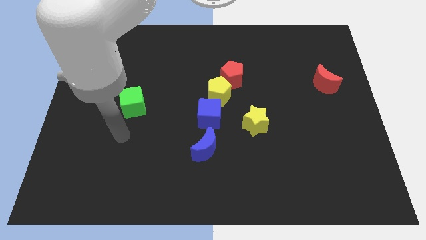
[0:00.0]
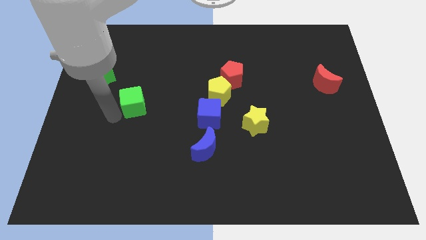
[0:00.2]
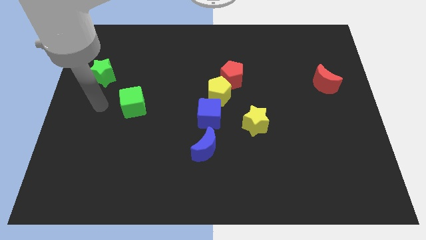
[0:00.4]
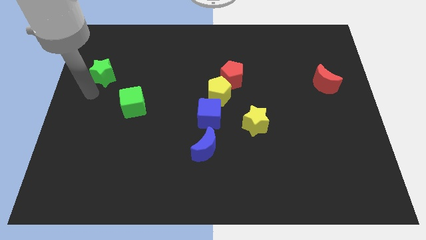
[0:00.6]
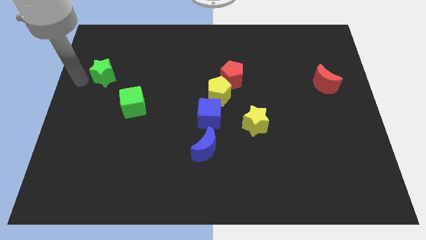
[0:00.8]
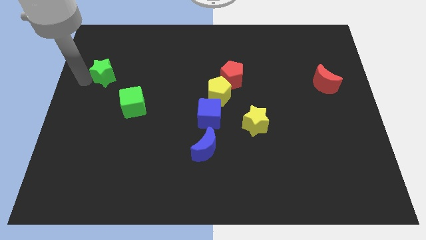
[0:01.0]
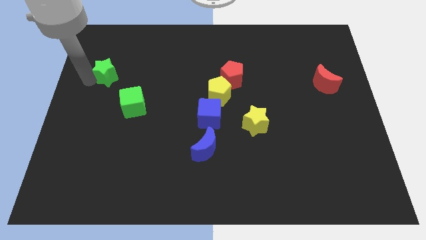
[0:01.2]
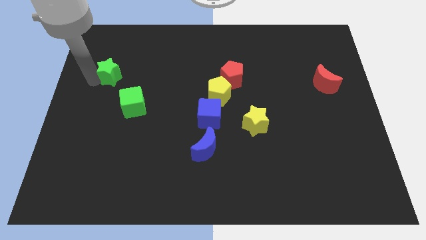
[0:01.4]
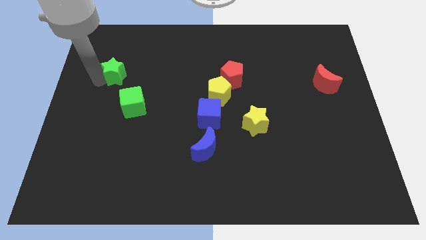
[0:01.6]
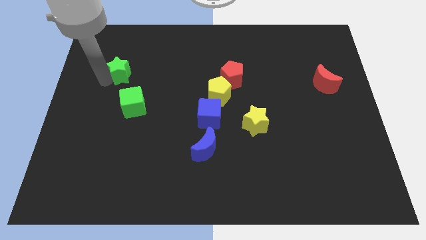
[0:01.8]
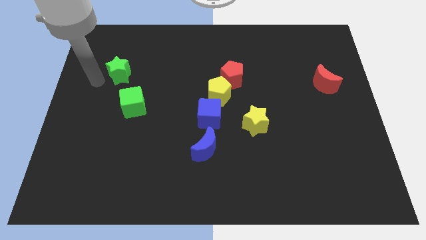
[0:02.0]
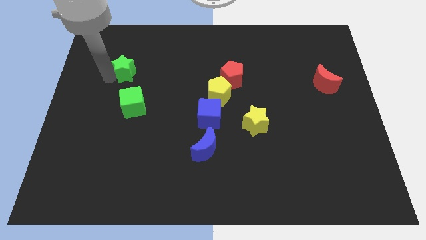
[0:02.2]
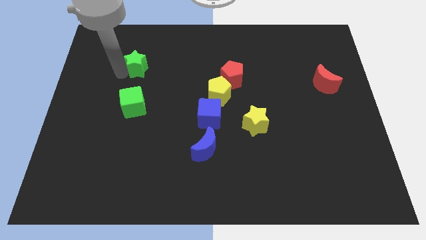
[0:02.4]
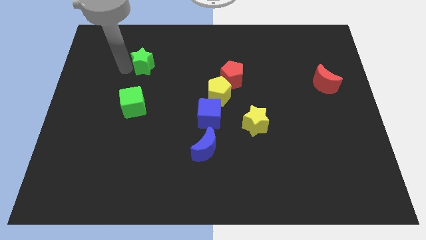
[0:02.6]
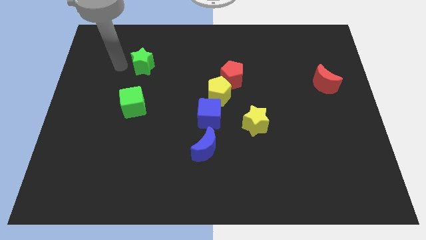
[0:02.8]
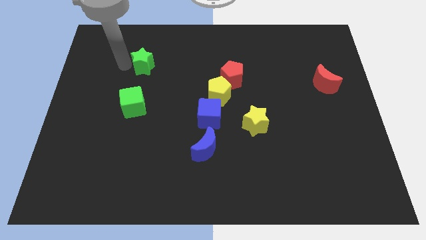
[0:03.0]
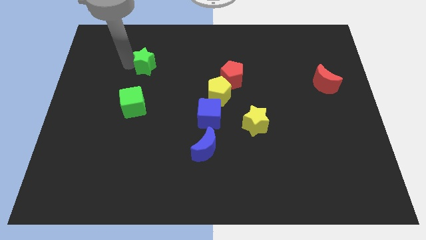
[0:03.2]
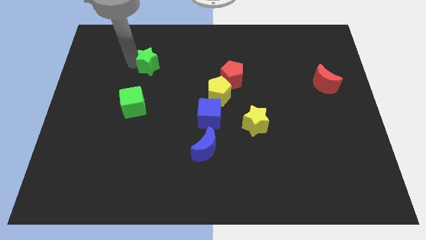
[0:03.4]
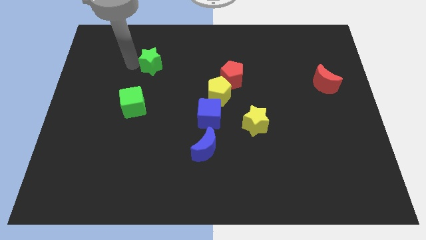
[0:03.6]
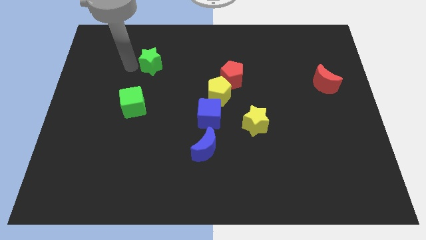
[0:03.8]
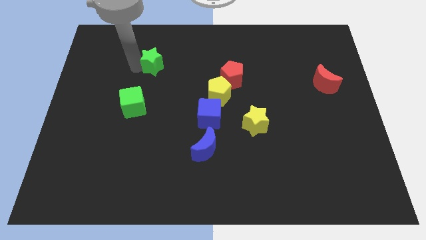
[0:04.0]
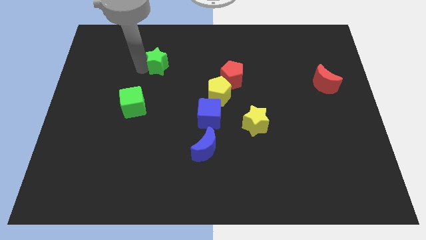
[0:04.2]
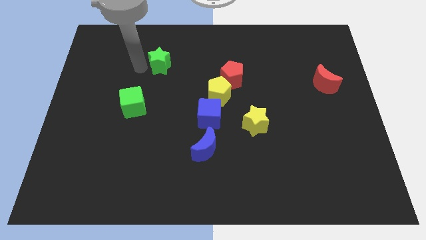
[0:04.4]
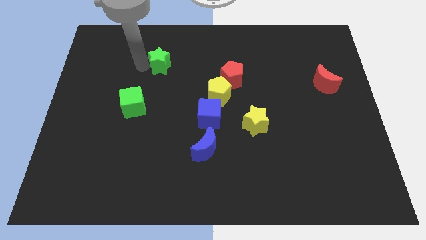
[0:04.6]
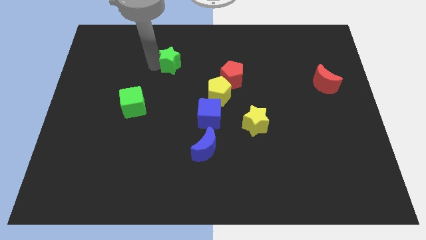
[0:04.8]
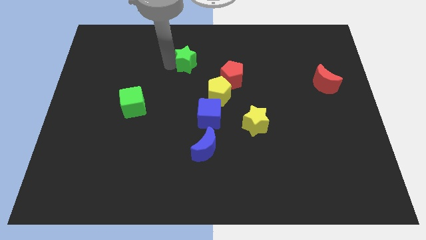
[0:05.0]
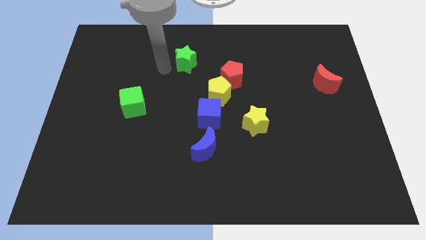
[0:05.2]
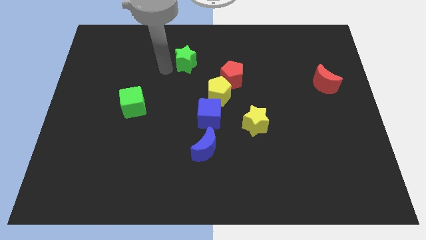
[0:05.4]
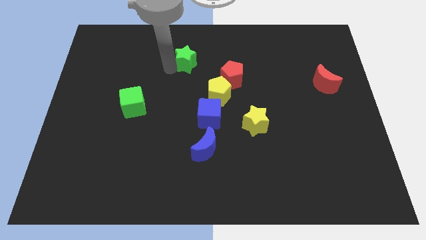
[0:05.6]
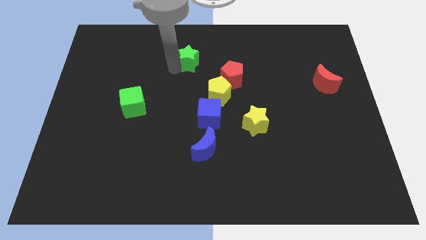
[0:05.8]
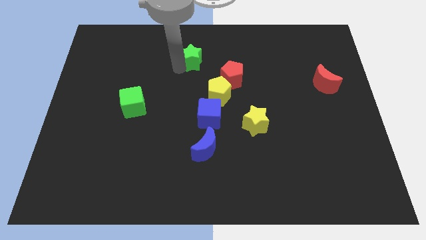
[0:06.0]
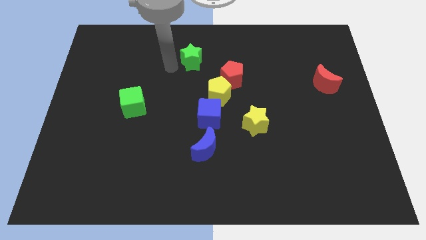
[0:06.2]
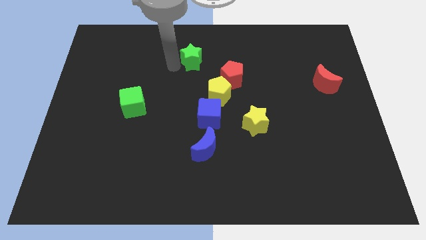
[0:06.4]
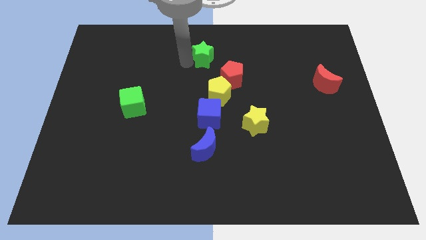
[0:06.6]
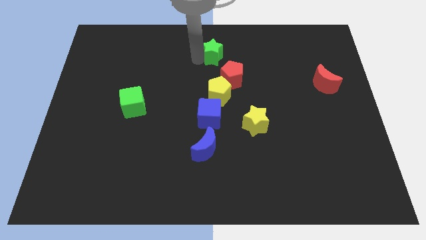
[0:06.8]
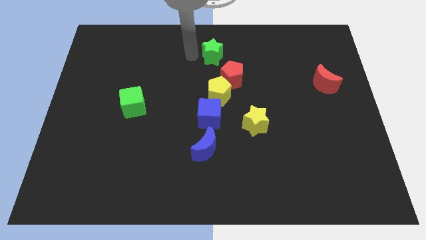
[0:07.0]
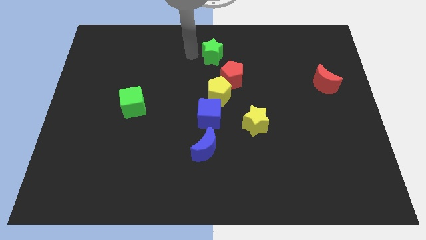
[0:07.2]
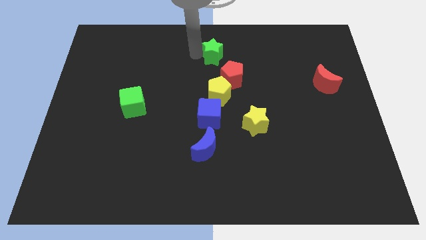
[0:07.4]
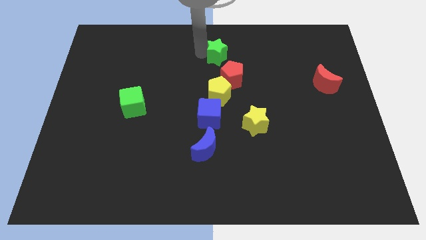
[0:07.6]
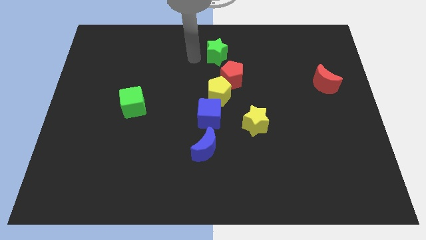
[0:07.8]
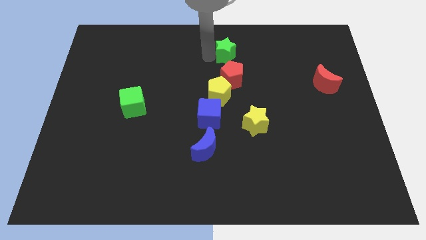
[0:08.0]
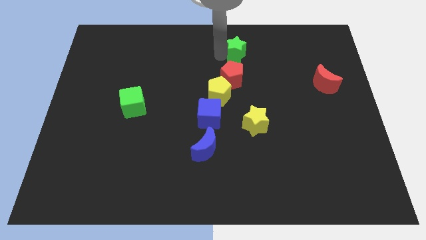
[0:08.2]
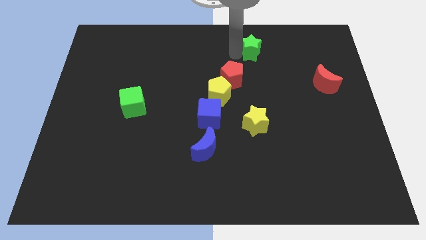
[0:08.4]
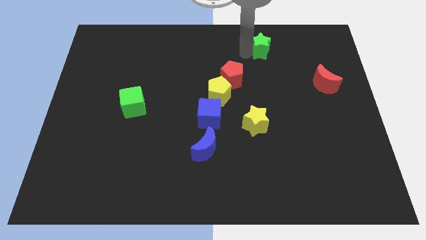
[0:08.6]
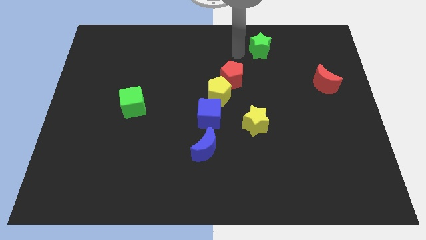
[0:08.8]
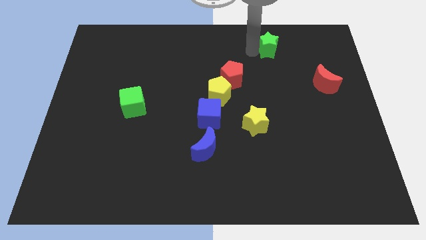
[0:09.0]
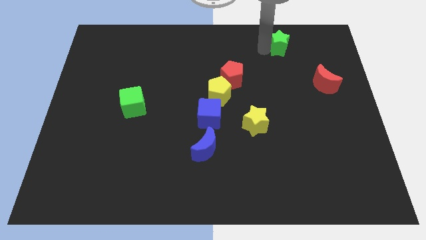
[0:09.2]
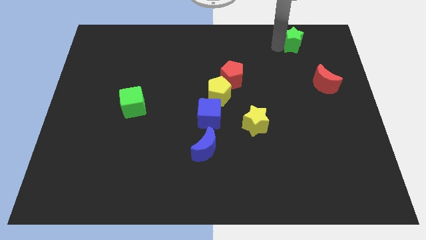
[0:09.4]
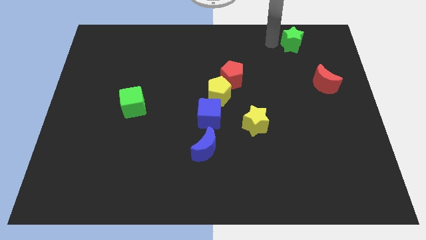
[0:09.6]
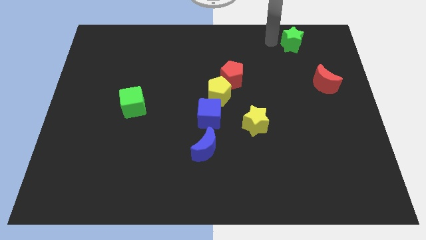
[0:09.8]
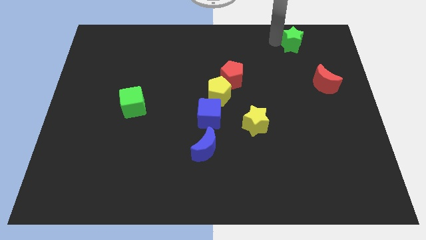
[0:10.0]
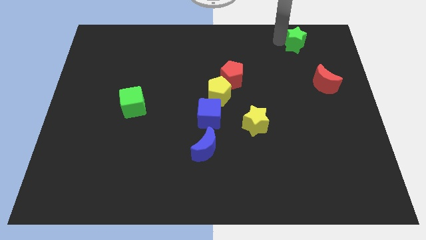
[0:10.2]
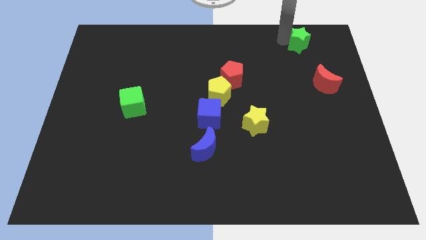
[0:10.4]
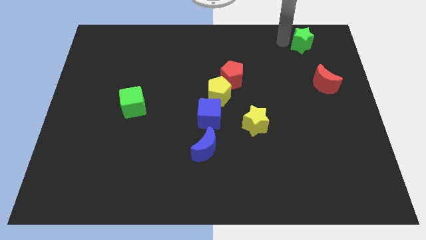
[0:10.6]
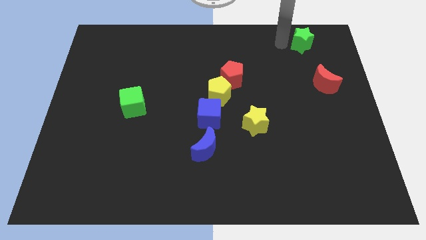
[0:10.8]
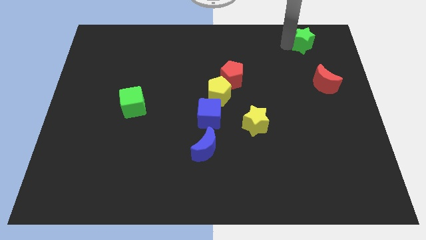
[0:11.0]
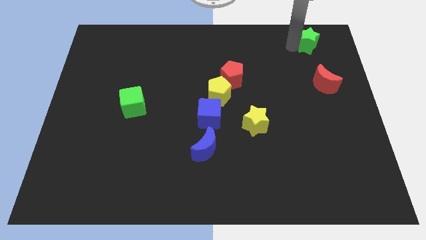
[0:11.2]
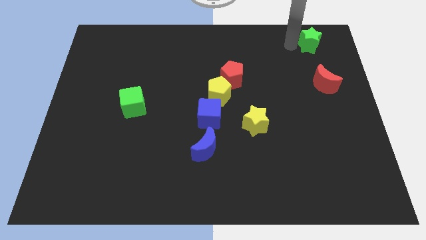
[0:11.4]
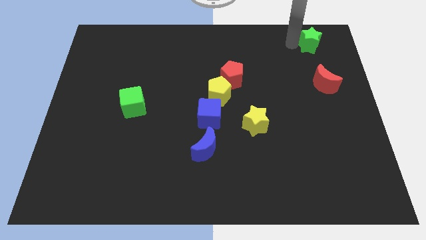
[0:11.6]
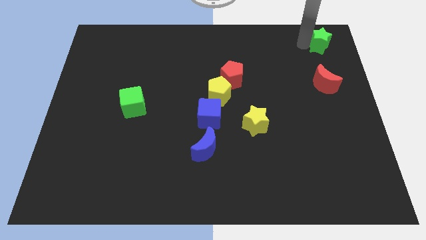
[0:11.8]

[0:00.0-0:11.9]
push the green star to the top right
